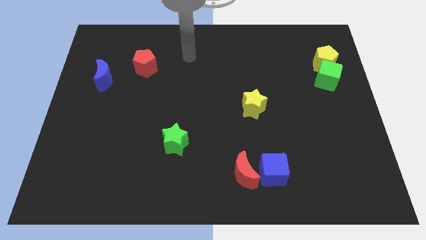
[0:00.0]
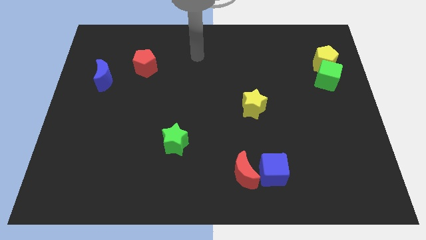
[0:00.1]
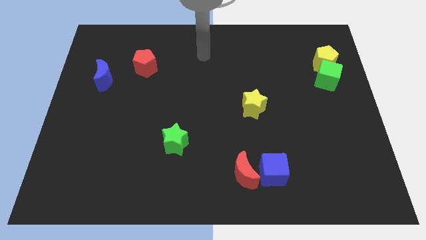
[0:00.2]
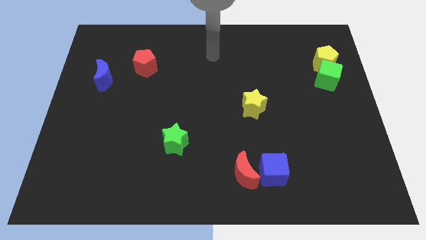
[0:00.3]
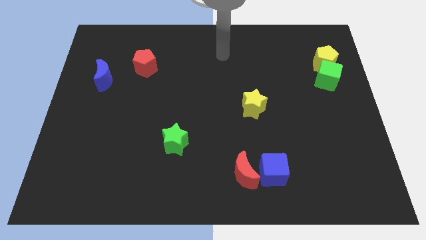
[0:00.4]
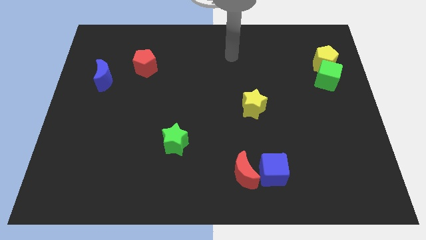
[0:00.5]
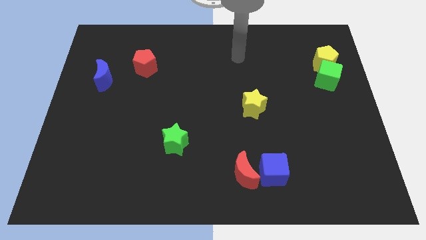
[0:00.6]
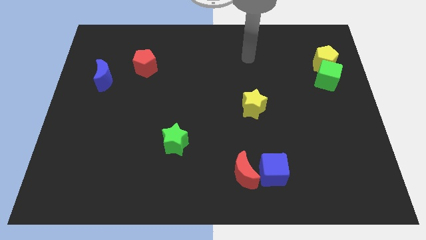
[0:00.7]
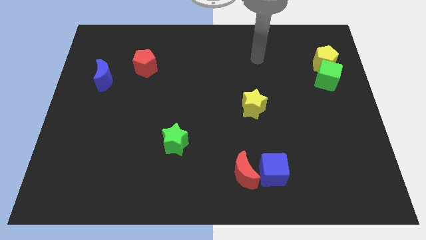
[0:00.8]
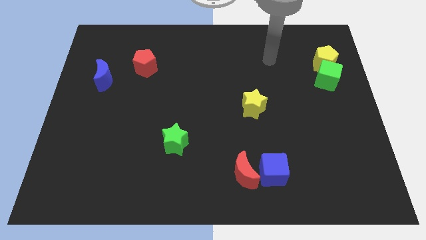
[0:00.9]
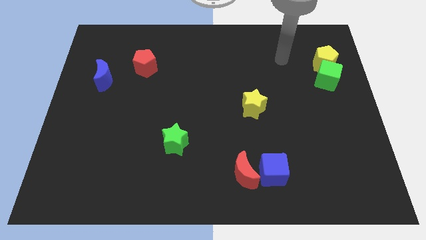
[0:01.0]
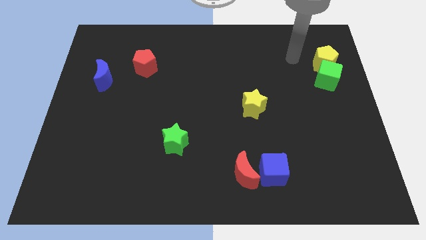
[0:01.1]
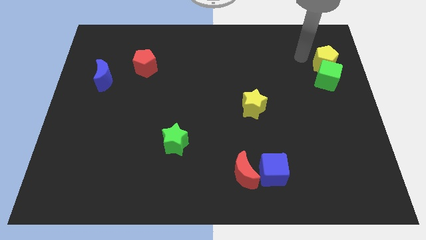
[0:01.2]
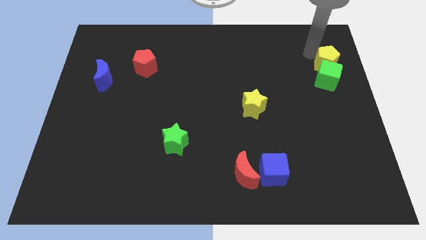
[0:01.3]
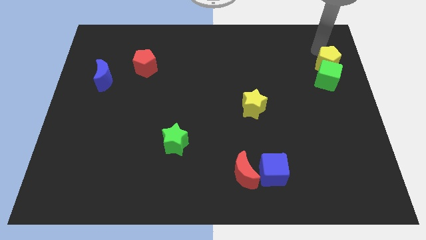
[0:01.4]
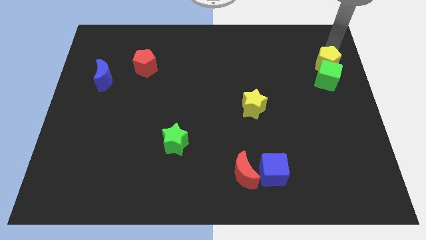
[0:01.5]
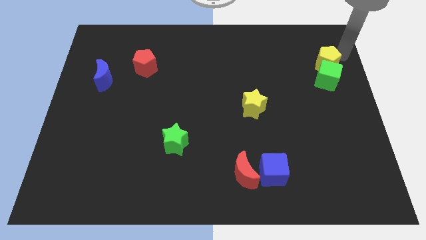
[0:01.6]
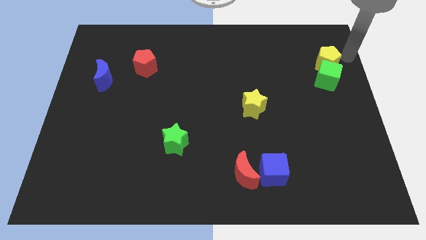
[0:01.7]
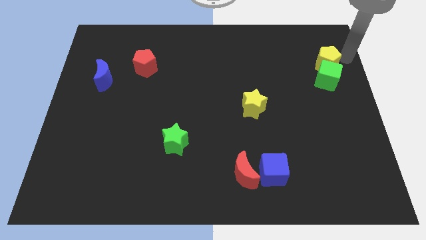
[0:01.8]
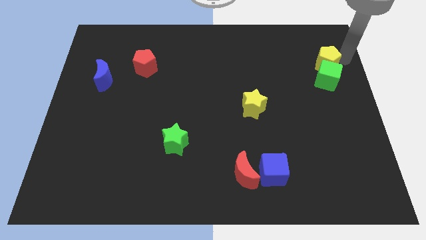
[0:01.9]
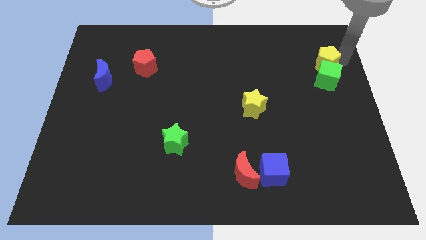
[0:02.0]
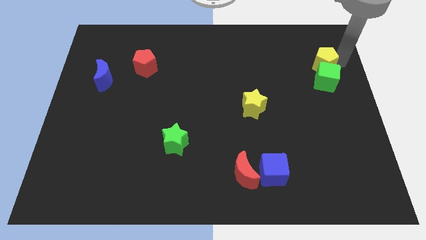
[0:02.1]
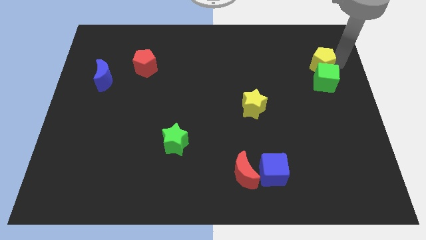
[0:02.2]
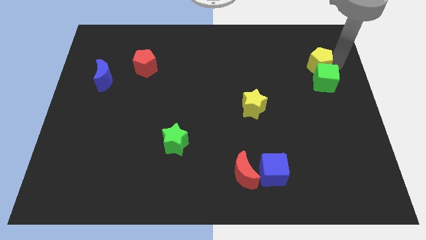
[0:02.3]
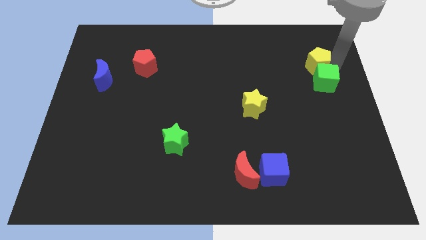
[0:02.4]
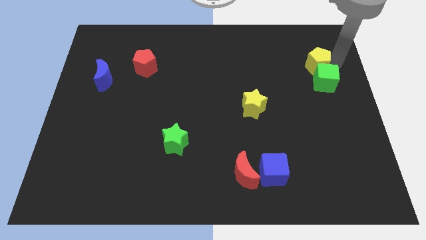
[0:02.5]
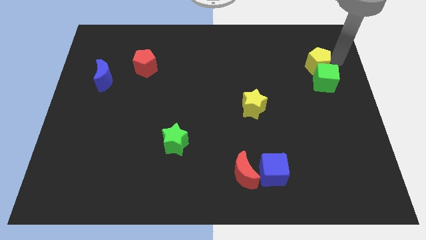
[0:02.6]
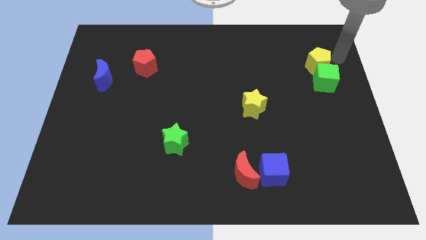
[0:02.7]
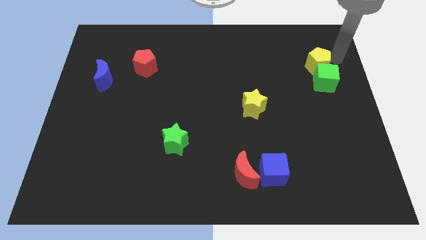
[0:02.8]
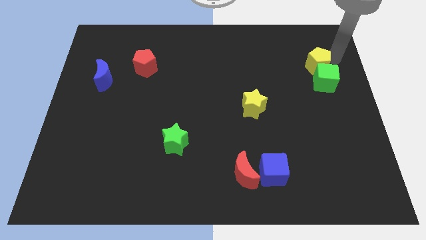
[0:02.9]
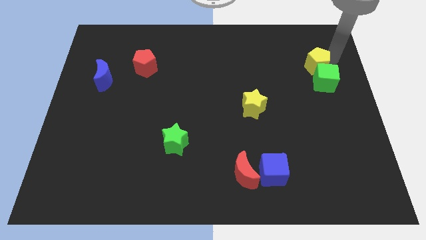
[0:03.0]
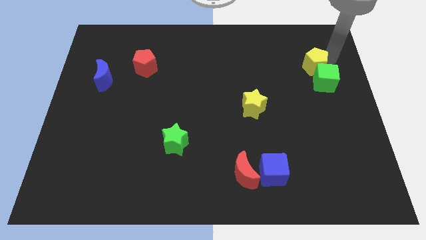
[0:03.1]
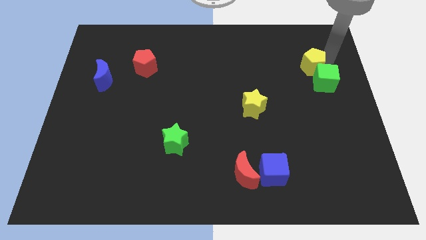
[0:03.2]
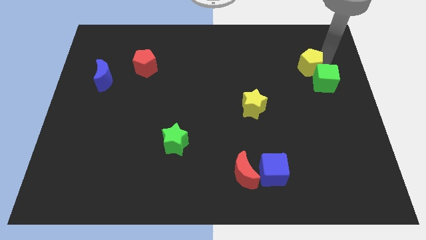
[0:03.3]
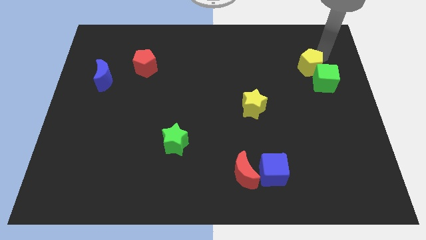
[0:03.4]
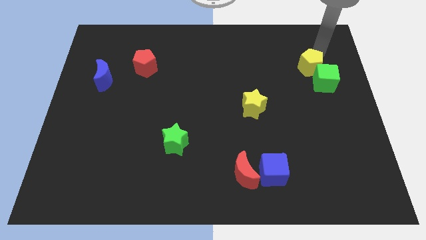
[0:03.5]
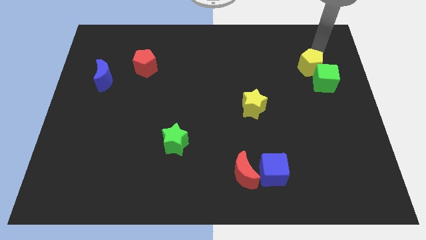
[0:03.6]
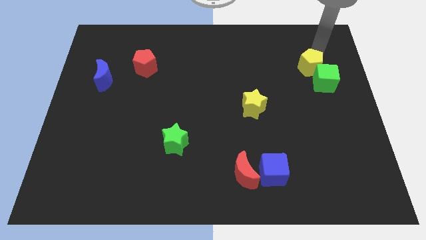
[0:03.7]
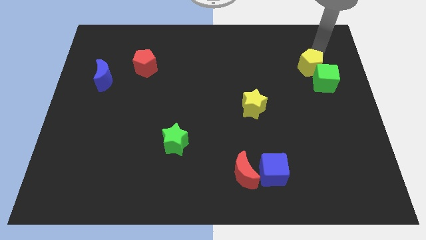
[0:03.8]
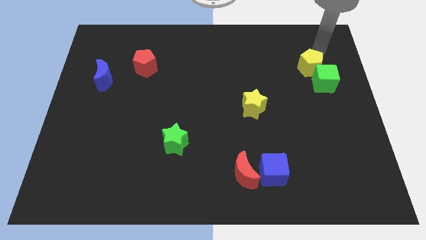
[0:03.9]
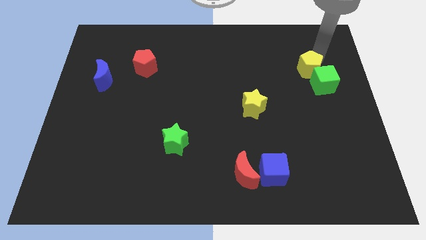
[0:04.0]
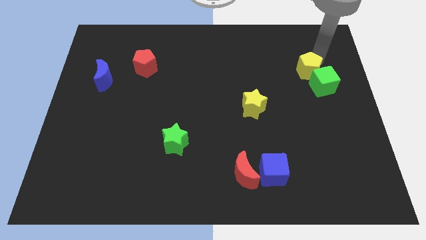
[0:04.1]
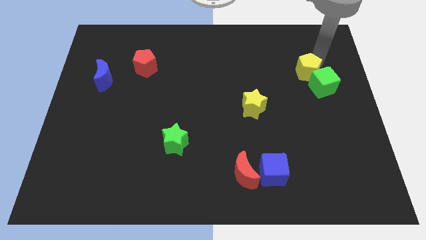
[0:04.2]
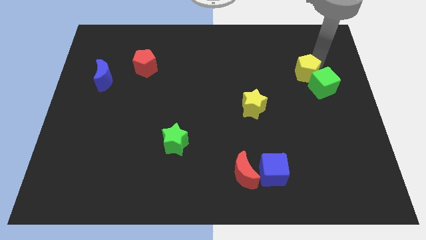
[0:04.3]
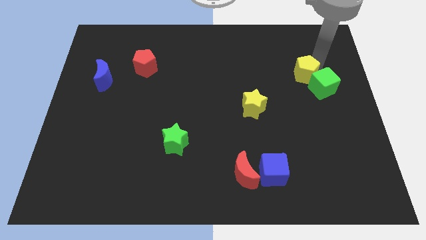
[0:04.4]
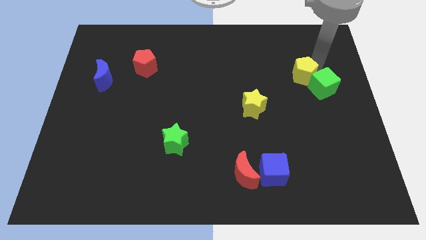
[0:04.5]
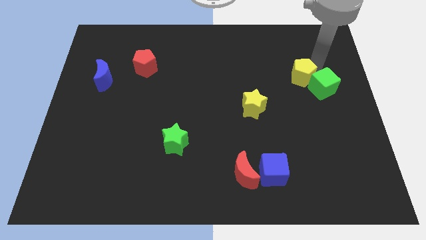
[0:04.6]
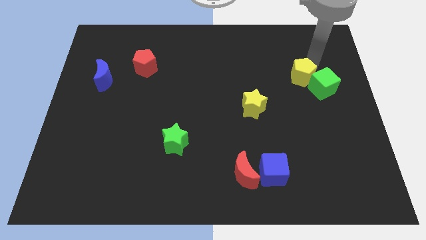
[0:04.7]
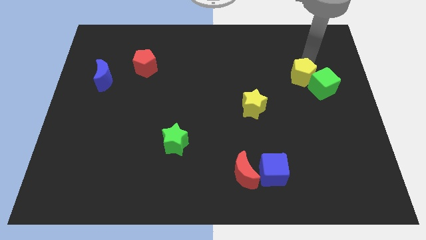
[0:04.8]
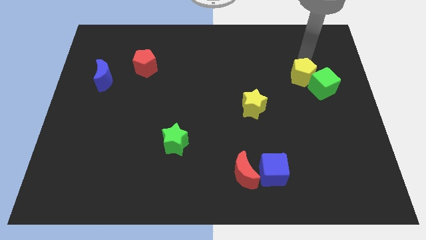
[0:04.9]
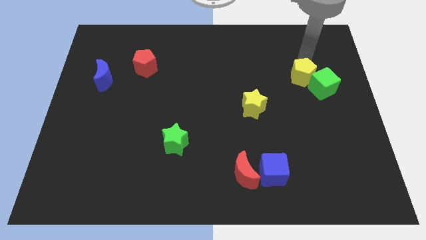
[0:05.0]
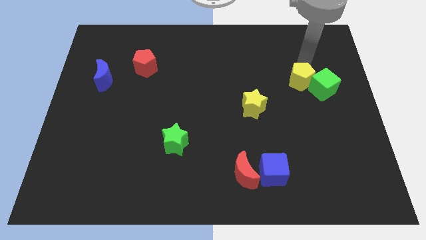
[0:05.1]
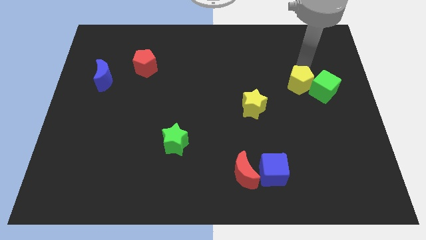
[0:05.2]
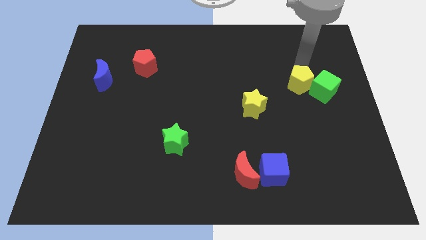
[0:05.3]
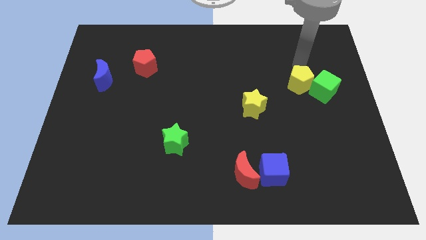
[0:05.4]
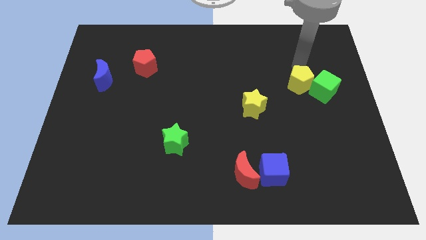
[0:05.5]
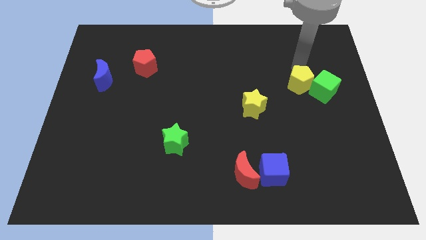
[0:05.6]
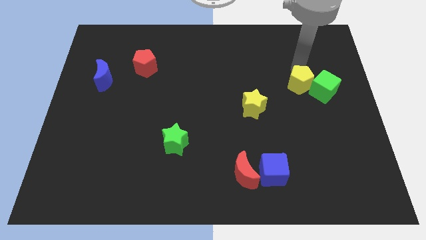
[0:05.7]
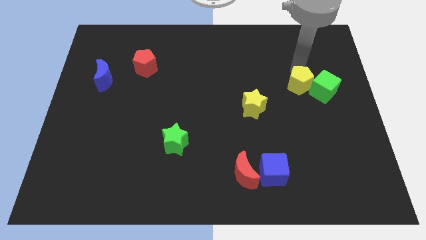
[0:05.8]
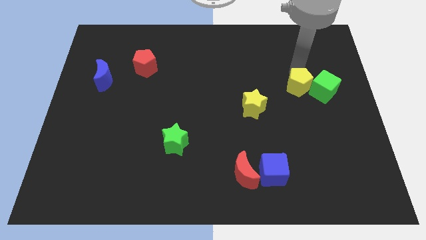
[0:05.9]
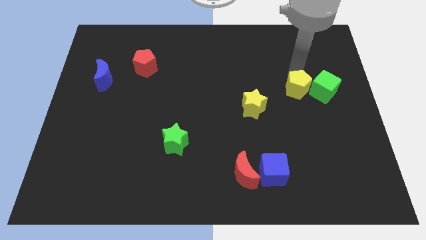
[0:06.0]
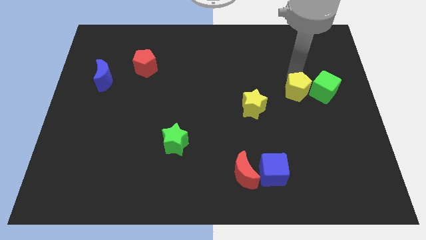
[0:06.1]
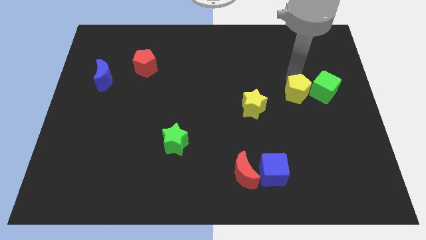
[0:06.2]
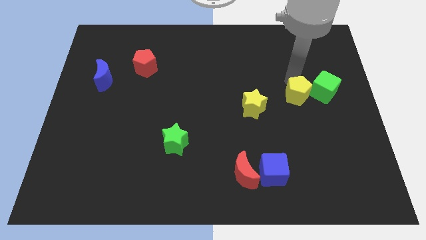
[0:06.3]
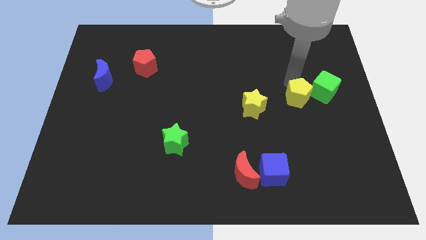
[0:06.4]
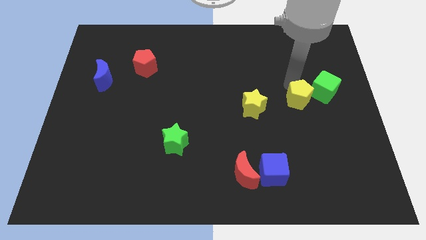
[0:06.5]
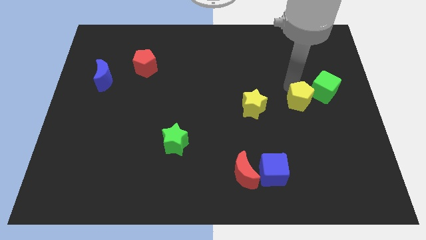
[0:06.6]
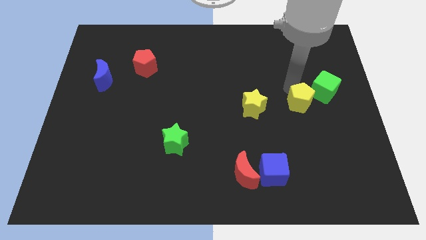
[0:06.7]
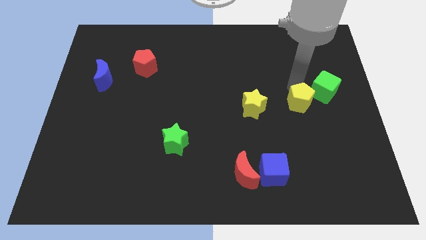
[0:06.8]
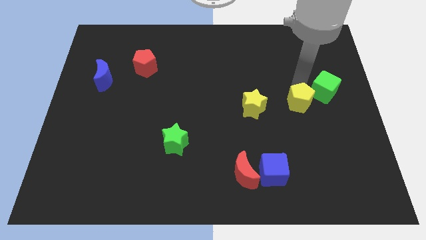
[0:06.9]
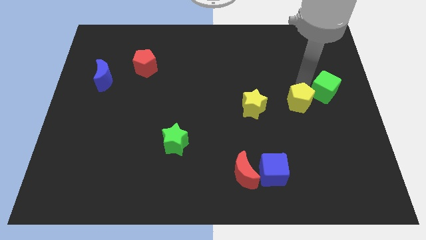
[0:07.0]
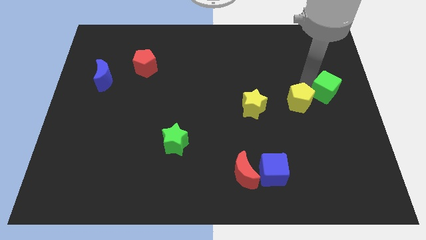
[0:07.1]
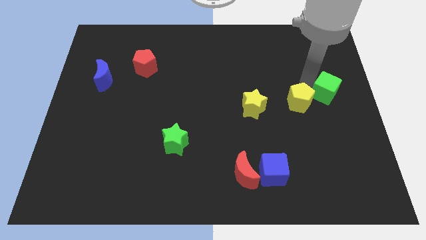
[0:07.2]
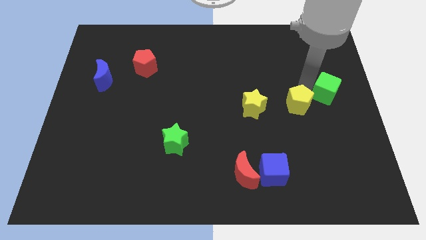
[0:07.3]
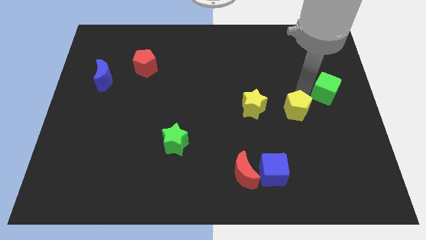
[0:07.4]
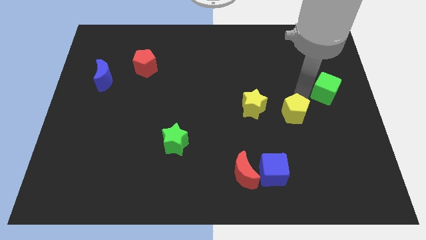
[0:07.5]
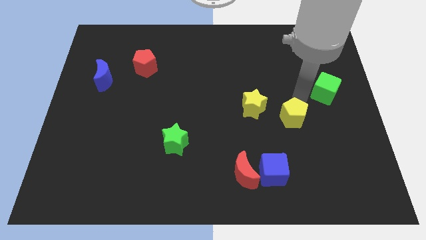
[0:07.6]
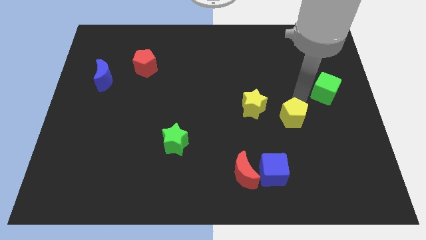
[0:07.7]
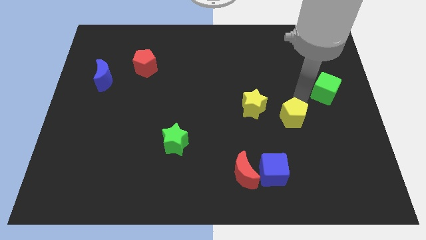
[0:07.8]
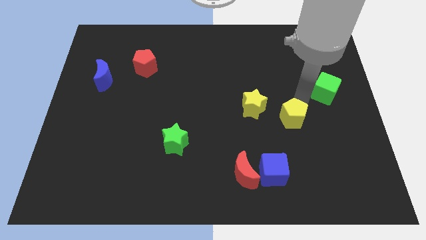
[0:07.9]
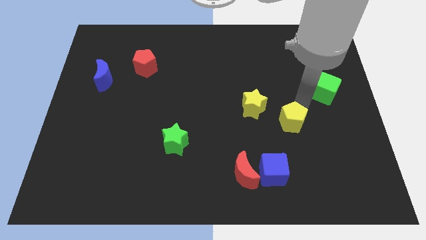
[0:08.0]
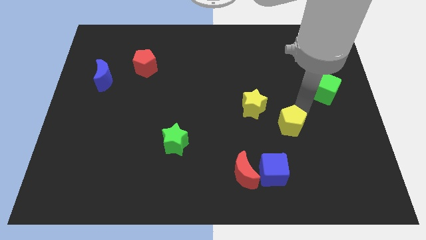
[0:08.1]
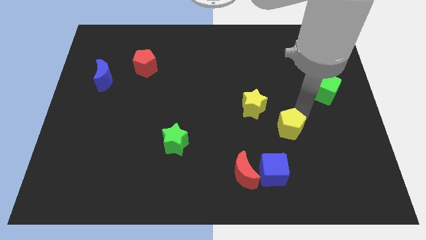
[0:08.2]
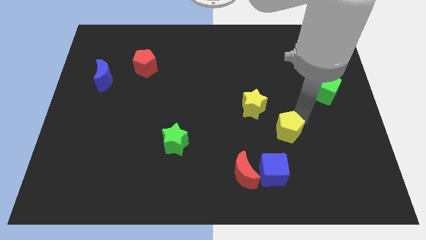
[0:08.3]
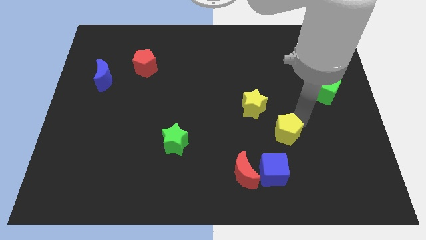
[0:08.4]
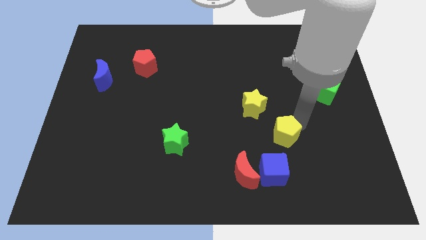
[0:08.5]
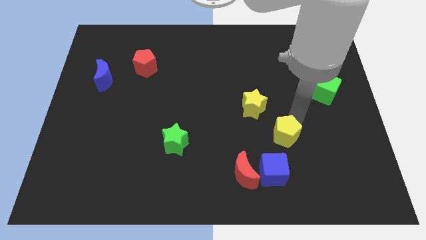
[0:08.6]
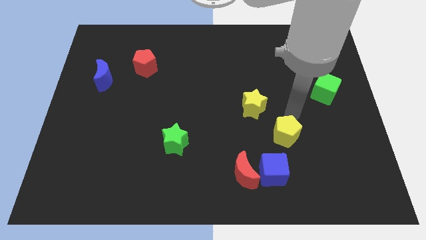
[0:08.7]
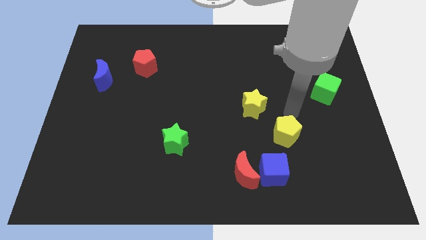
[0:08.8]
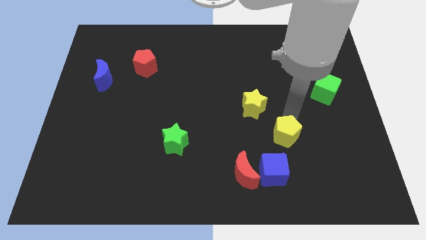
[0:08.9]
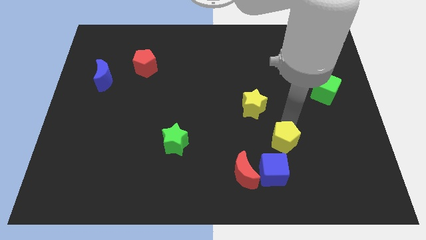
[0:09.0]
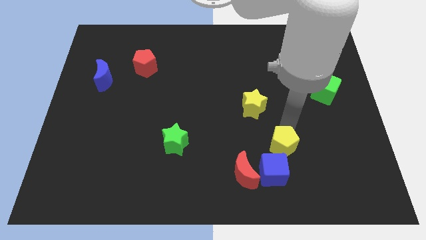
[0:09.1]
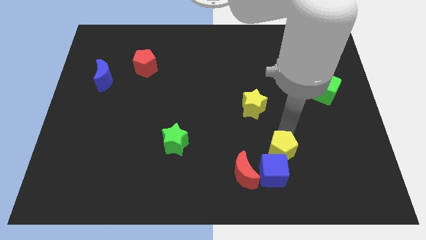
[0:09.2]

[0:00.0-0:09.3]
put the yellow pentagon next to the blue cube
